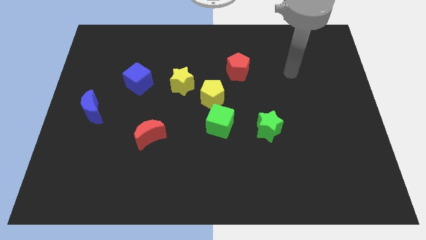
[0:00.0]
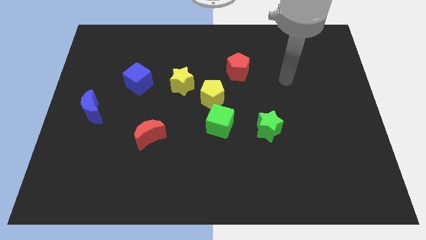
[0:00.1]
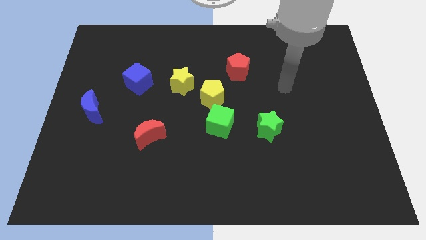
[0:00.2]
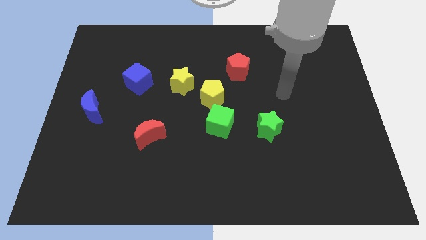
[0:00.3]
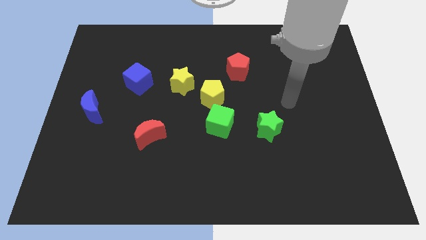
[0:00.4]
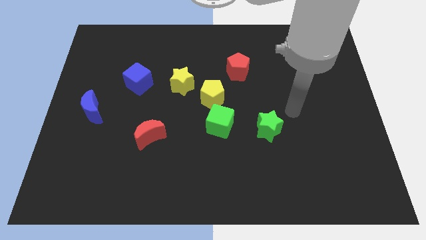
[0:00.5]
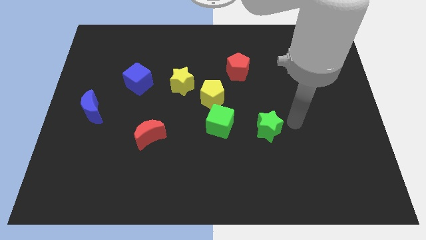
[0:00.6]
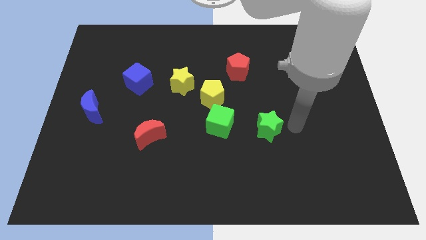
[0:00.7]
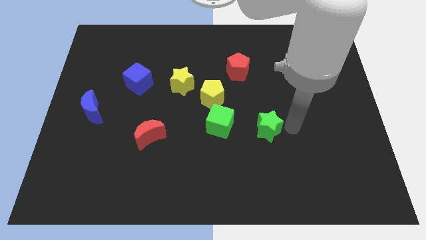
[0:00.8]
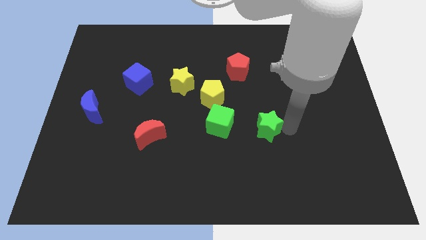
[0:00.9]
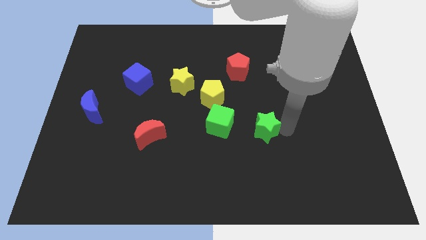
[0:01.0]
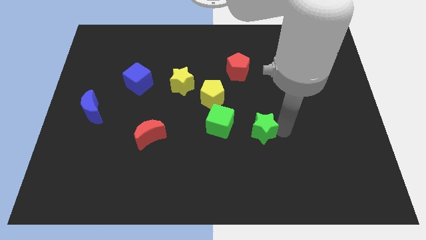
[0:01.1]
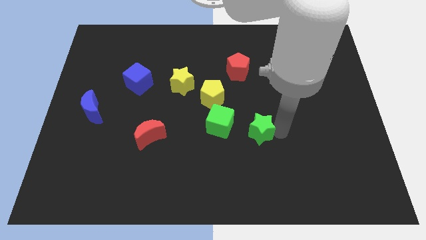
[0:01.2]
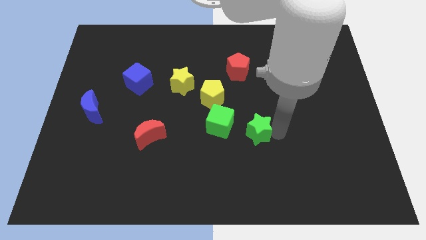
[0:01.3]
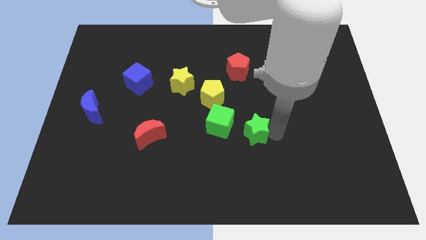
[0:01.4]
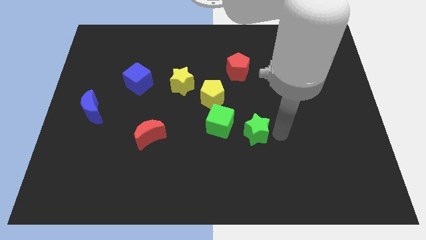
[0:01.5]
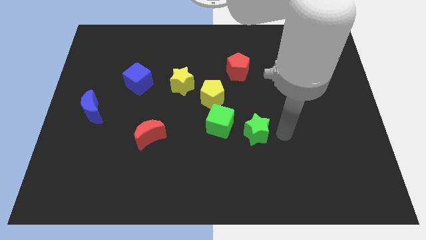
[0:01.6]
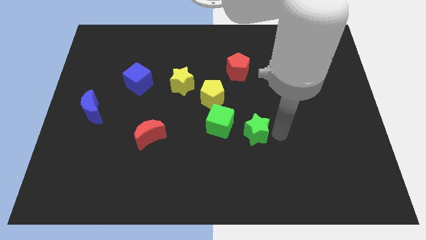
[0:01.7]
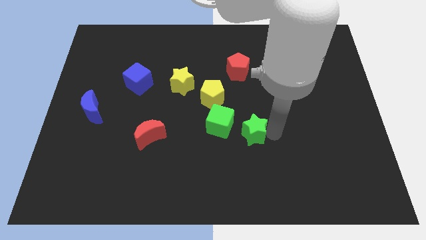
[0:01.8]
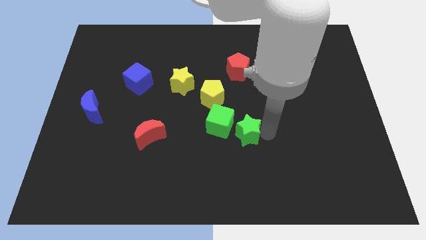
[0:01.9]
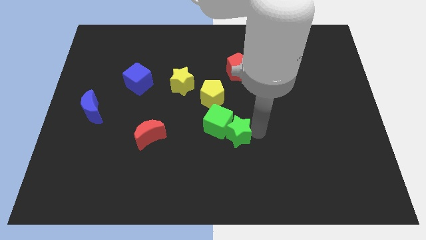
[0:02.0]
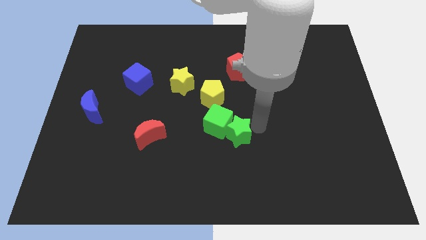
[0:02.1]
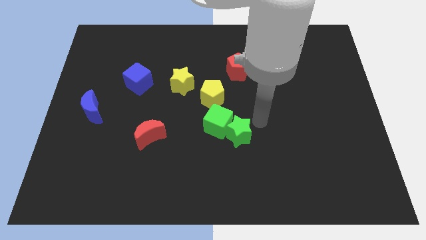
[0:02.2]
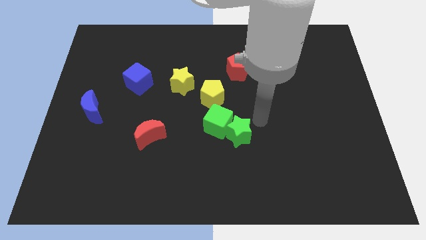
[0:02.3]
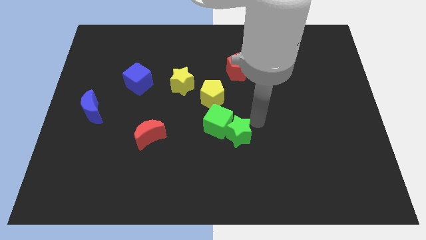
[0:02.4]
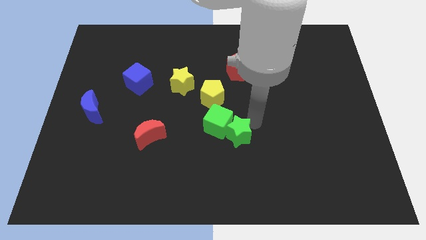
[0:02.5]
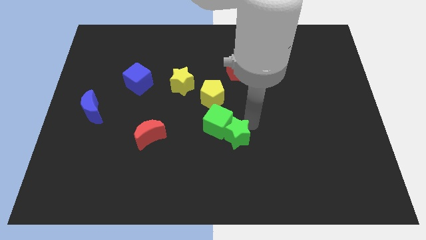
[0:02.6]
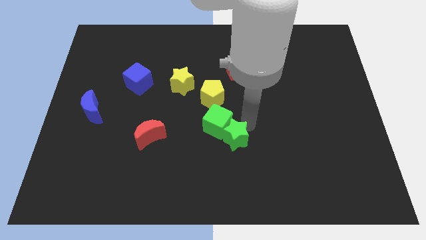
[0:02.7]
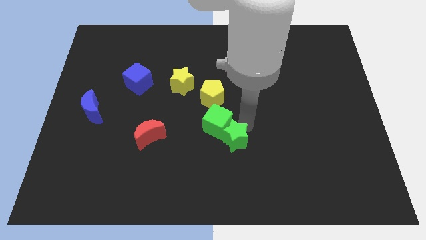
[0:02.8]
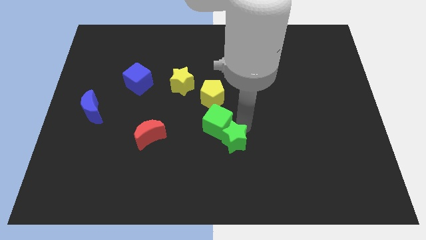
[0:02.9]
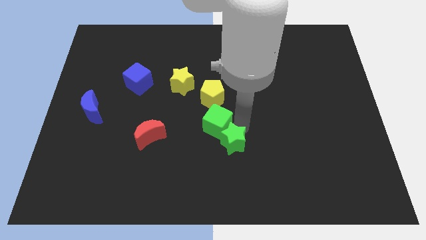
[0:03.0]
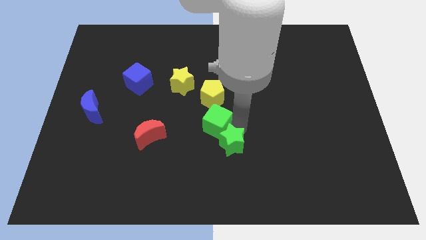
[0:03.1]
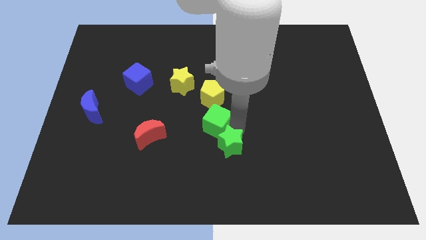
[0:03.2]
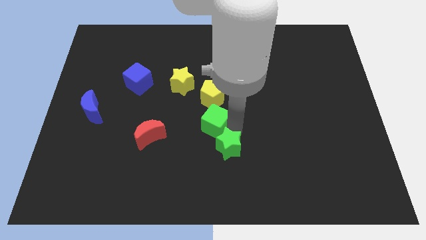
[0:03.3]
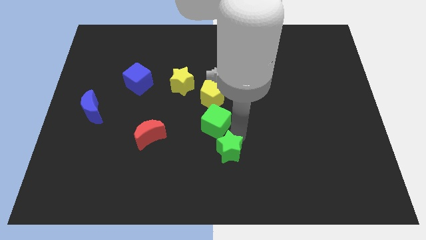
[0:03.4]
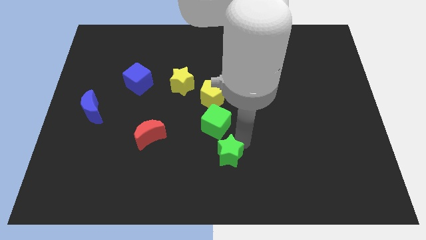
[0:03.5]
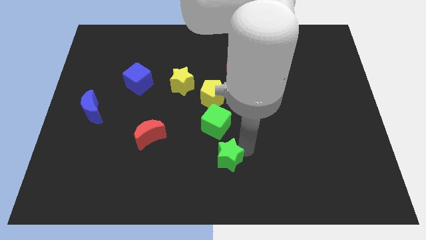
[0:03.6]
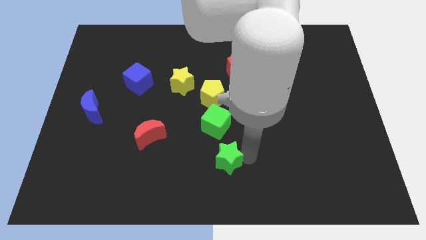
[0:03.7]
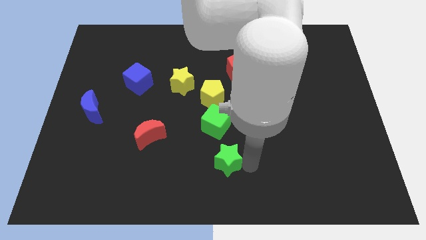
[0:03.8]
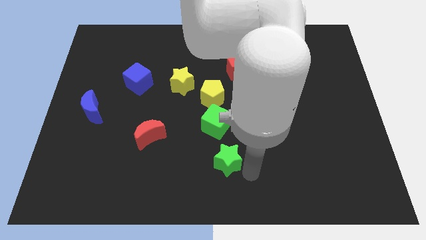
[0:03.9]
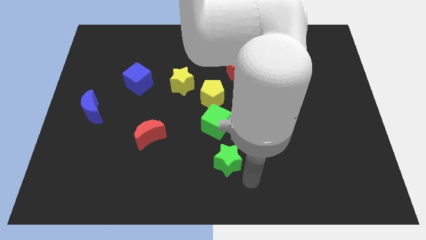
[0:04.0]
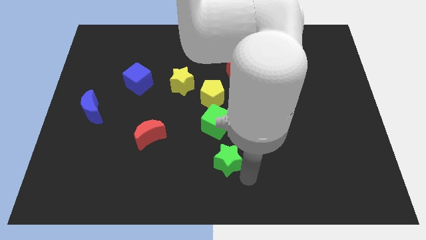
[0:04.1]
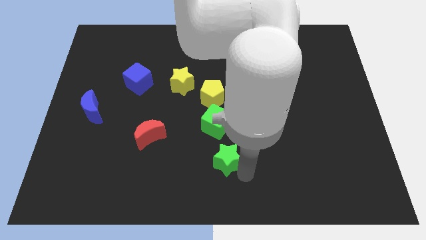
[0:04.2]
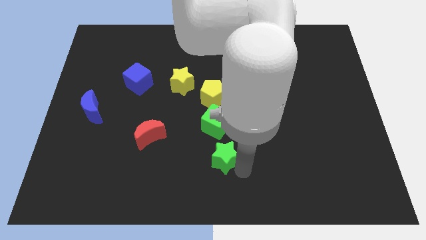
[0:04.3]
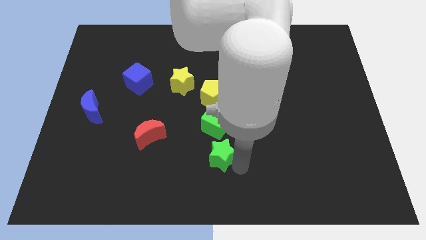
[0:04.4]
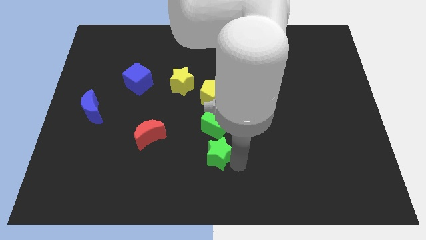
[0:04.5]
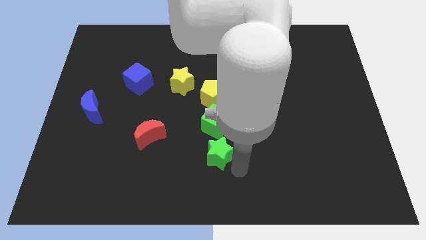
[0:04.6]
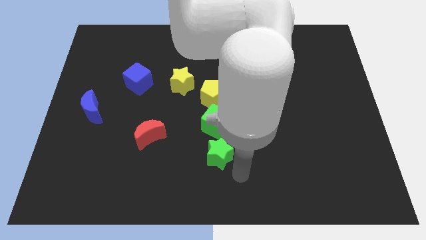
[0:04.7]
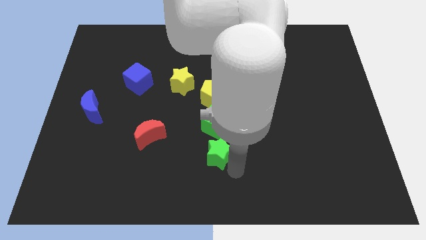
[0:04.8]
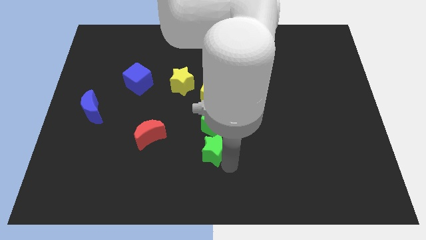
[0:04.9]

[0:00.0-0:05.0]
slide the green star right of the red moon

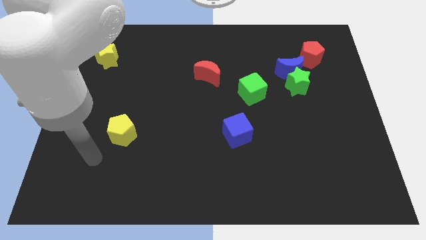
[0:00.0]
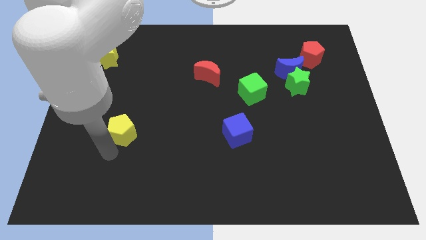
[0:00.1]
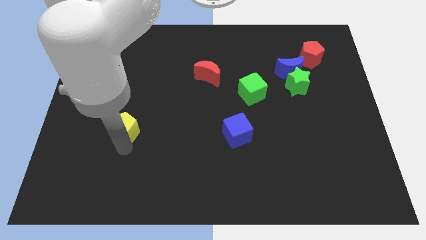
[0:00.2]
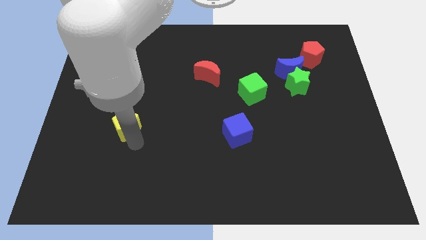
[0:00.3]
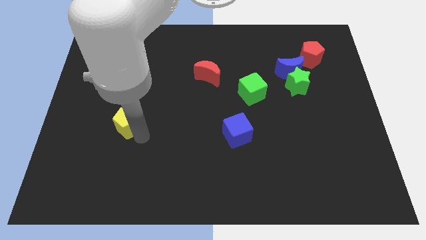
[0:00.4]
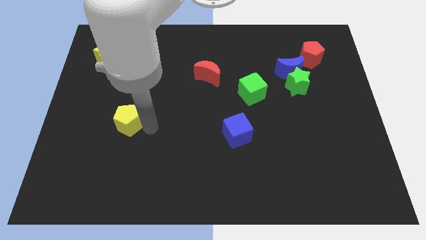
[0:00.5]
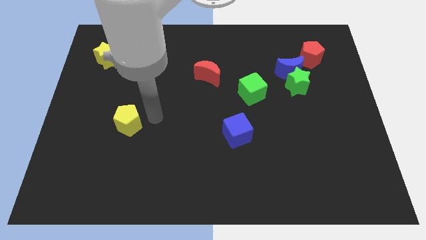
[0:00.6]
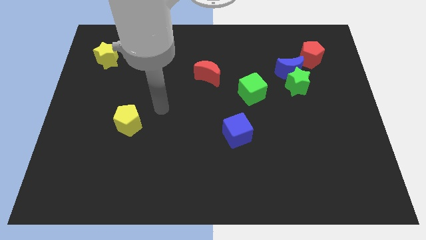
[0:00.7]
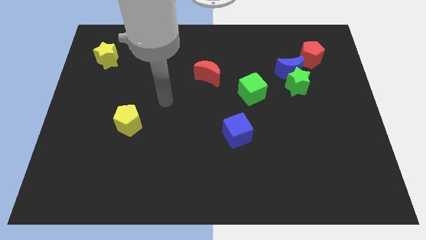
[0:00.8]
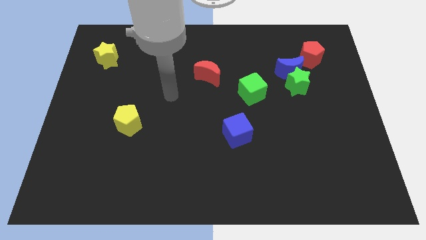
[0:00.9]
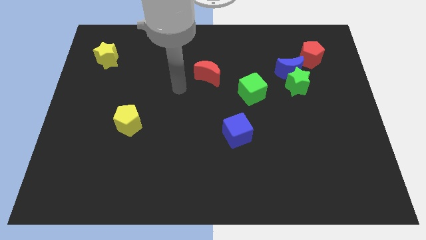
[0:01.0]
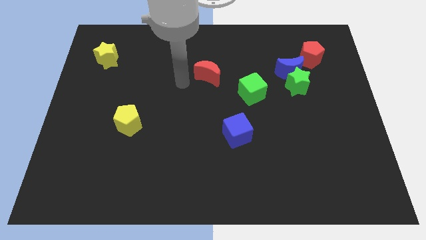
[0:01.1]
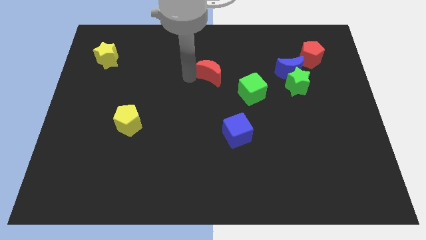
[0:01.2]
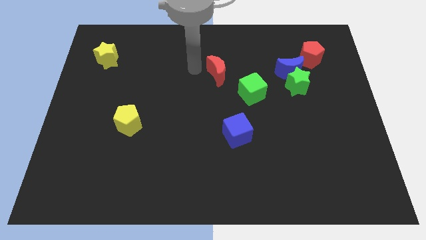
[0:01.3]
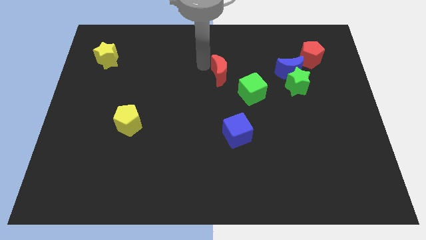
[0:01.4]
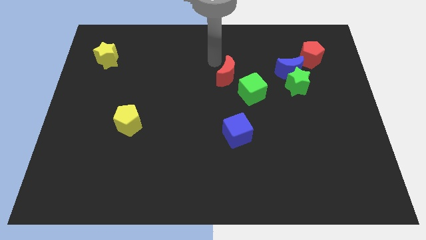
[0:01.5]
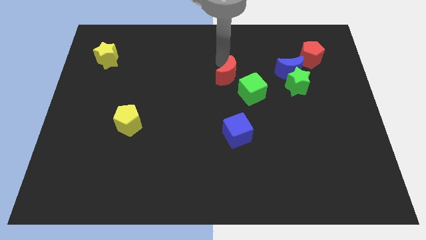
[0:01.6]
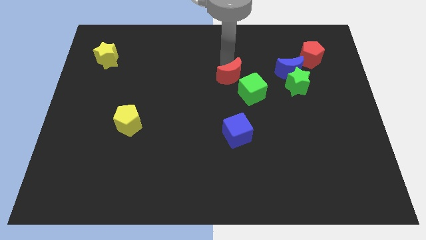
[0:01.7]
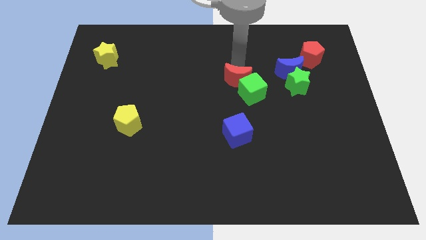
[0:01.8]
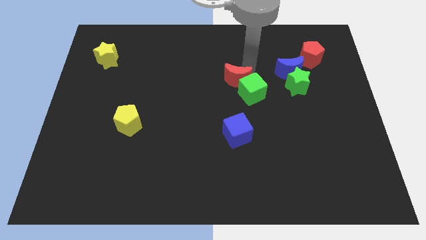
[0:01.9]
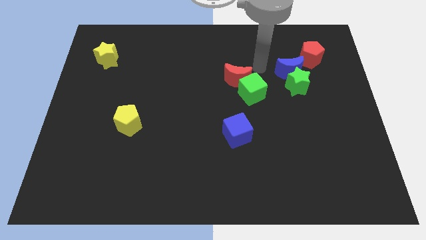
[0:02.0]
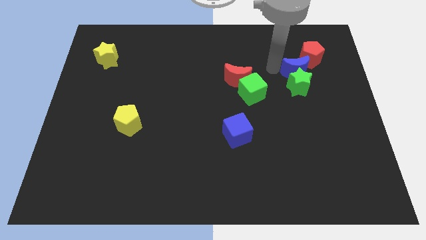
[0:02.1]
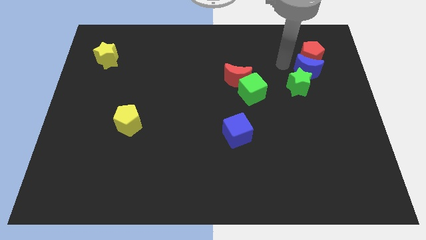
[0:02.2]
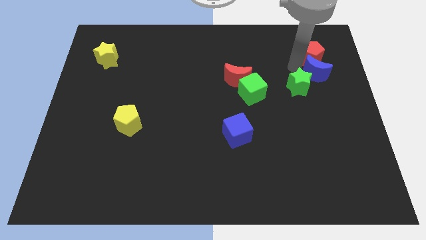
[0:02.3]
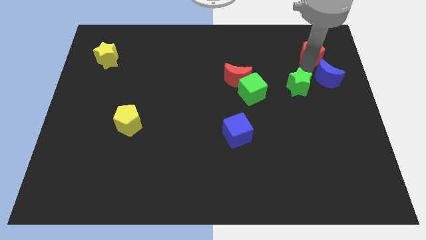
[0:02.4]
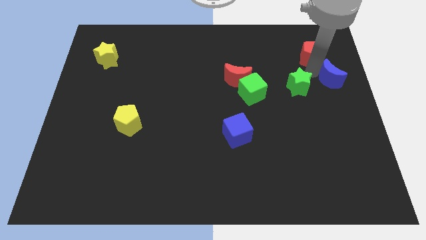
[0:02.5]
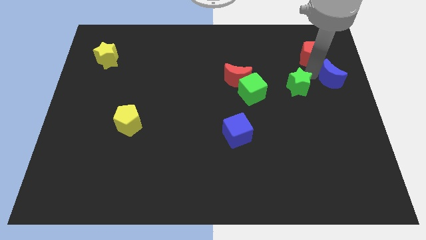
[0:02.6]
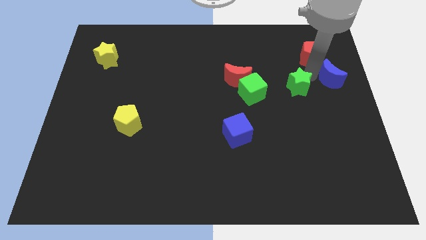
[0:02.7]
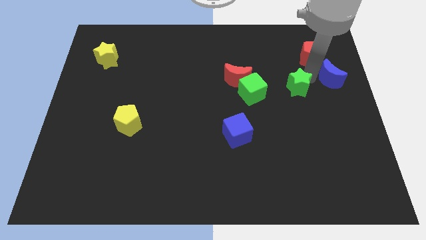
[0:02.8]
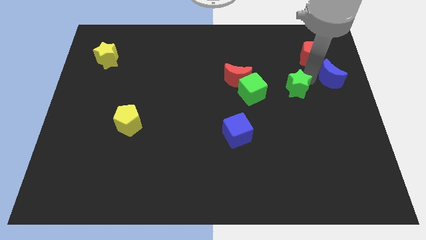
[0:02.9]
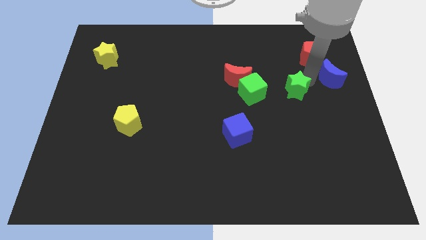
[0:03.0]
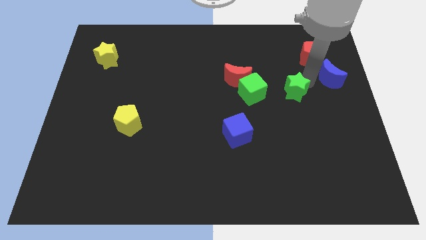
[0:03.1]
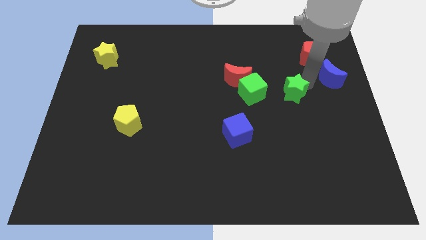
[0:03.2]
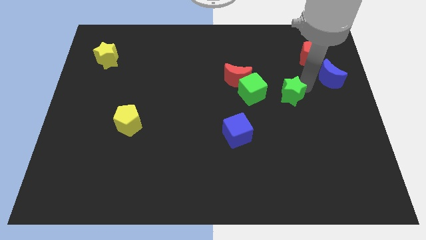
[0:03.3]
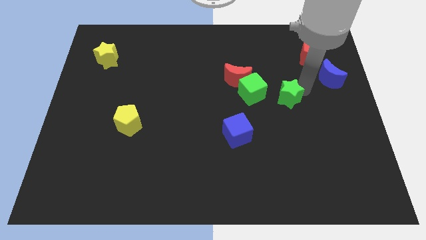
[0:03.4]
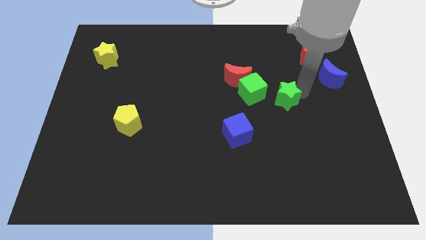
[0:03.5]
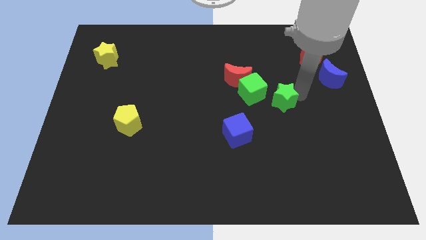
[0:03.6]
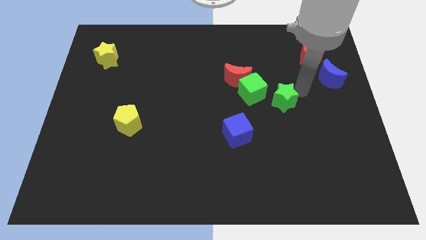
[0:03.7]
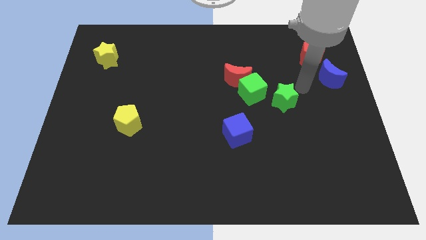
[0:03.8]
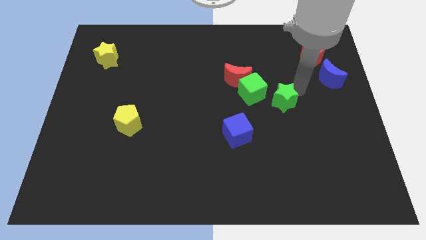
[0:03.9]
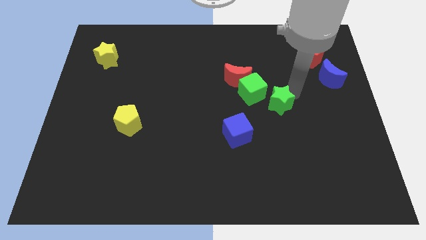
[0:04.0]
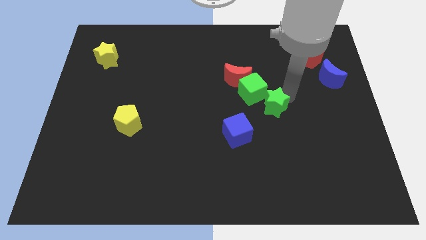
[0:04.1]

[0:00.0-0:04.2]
push the green star to the top right side of the blue cube
